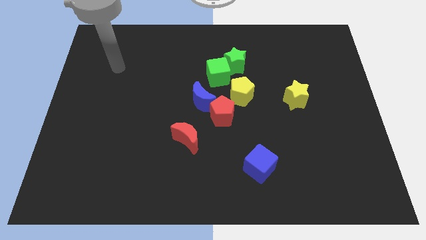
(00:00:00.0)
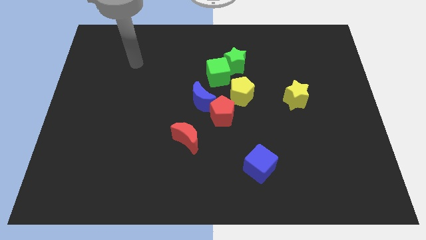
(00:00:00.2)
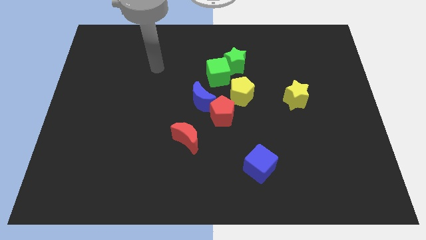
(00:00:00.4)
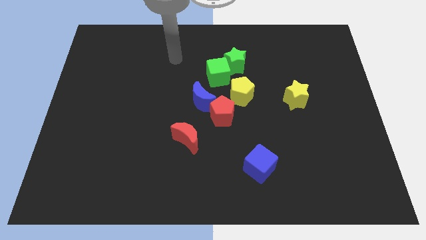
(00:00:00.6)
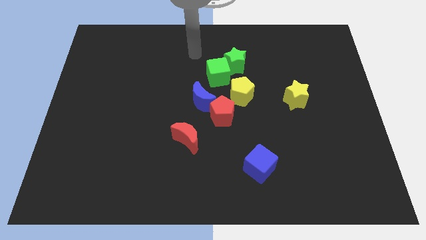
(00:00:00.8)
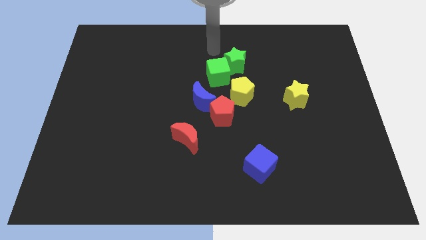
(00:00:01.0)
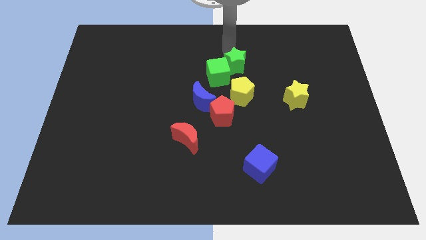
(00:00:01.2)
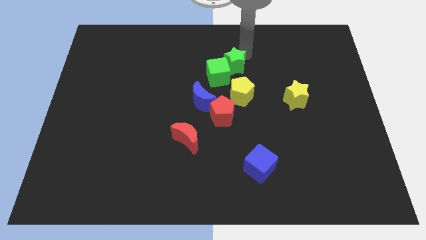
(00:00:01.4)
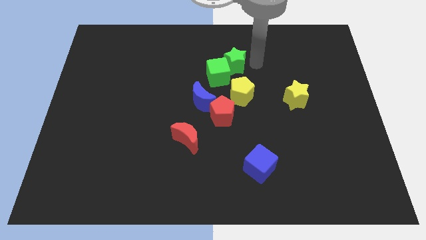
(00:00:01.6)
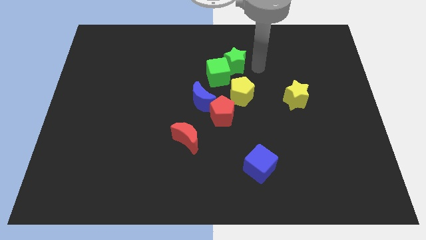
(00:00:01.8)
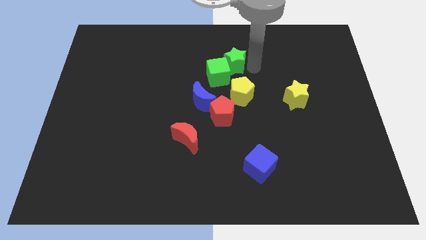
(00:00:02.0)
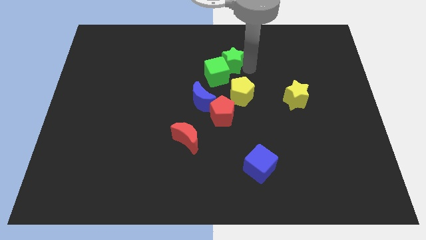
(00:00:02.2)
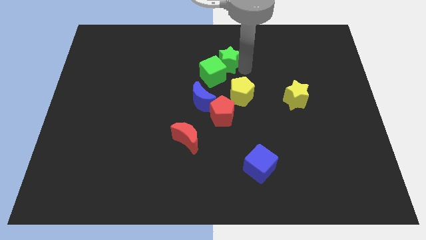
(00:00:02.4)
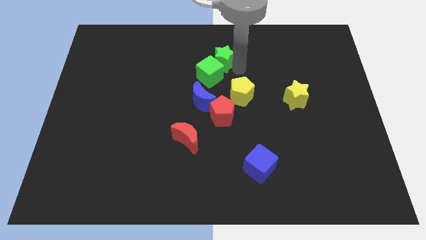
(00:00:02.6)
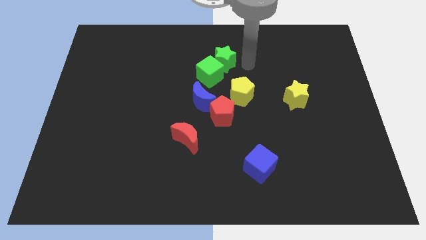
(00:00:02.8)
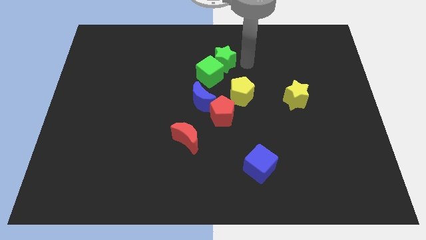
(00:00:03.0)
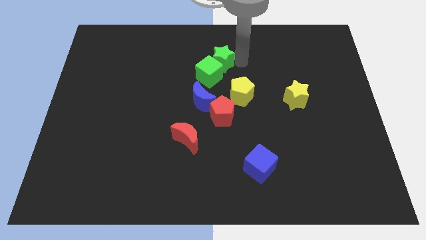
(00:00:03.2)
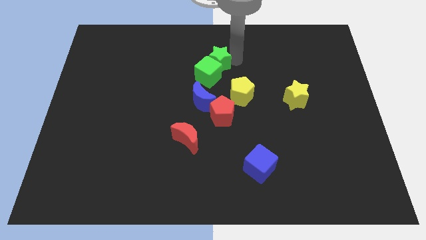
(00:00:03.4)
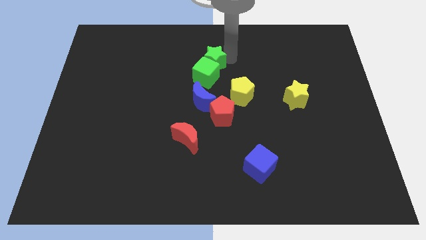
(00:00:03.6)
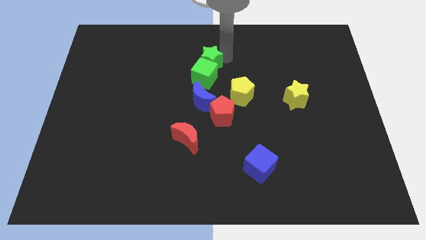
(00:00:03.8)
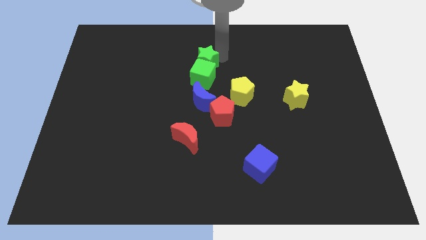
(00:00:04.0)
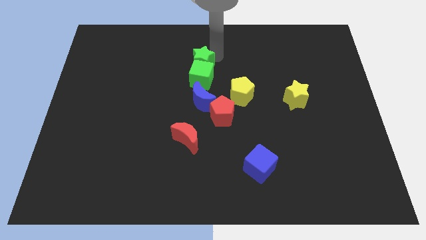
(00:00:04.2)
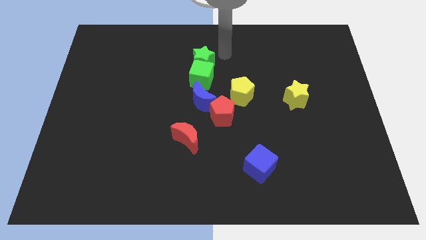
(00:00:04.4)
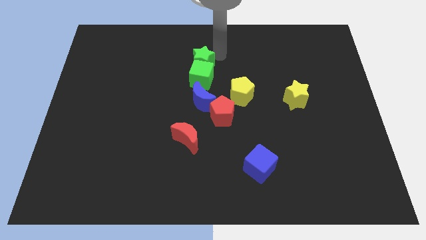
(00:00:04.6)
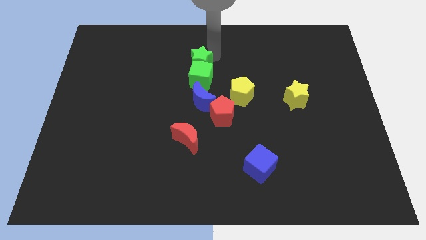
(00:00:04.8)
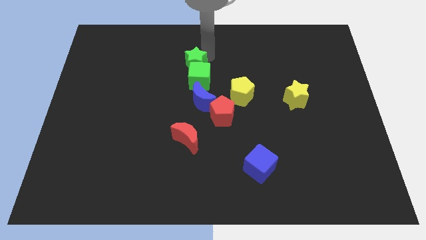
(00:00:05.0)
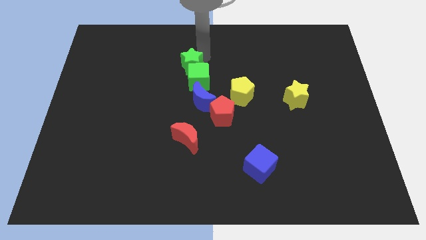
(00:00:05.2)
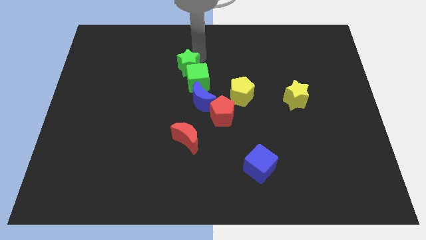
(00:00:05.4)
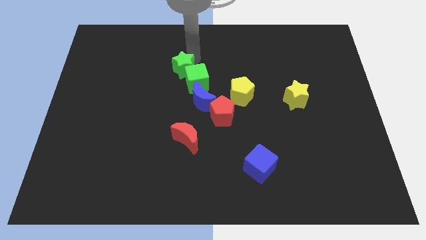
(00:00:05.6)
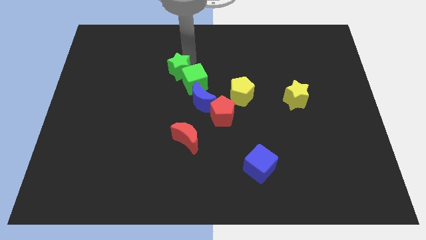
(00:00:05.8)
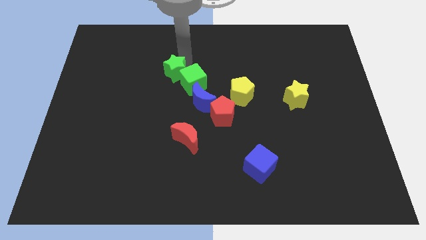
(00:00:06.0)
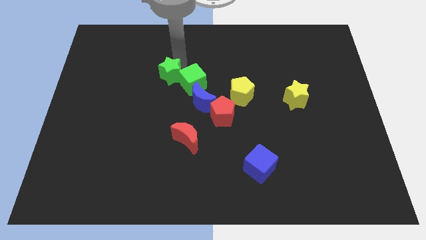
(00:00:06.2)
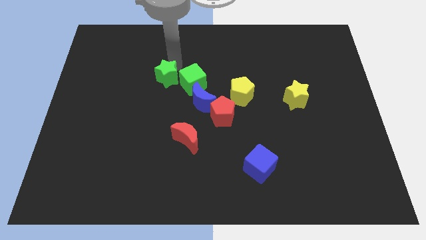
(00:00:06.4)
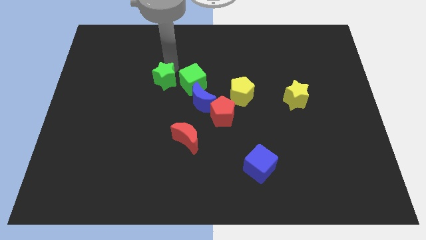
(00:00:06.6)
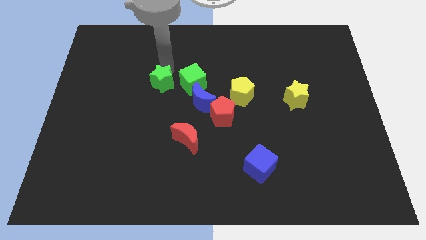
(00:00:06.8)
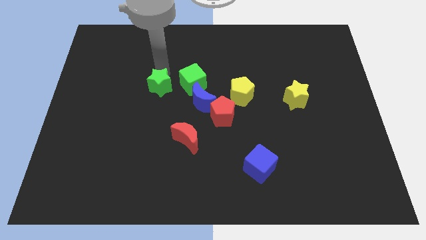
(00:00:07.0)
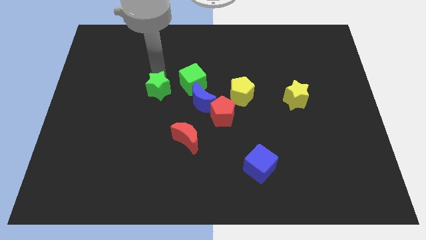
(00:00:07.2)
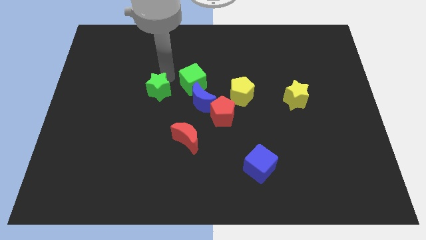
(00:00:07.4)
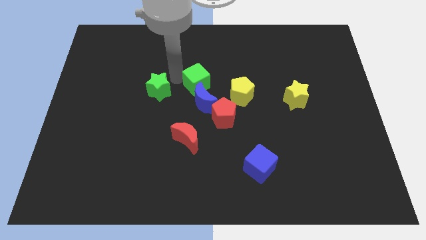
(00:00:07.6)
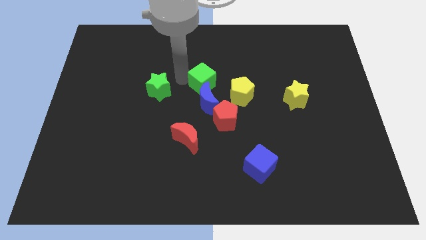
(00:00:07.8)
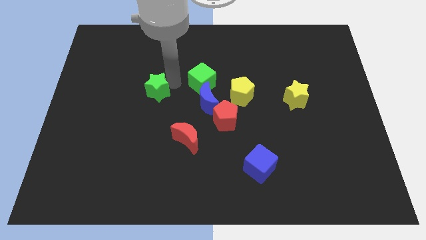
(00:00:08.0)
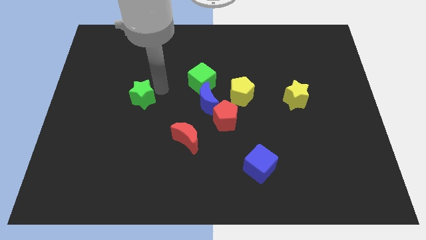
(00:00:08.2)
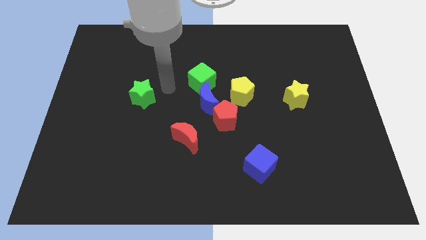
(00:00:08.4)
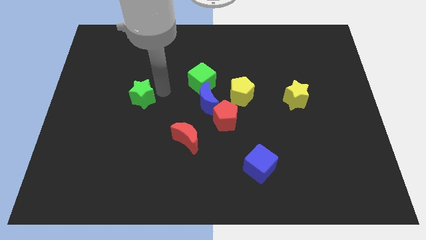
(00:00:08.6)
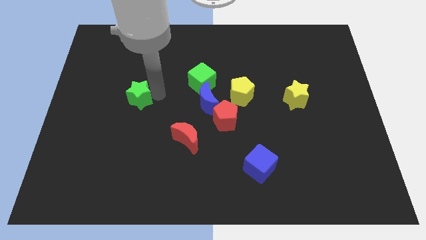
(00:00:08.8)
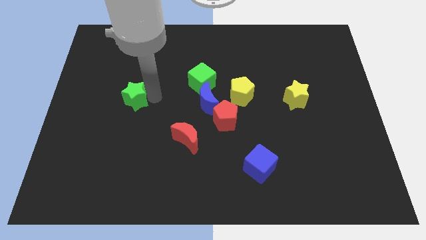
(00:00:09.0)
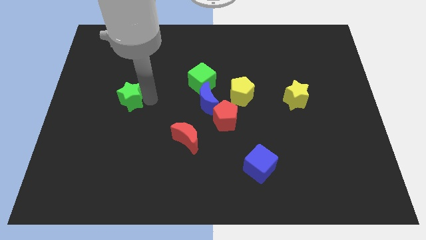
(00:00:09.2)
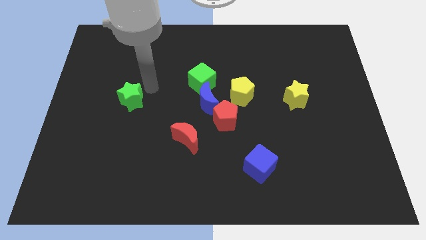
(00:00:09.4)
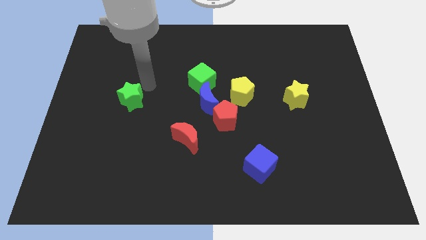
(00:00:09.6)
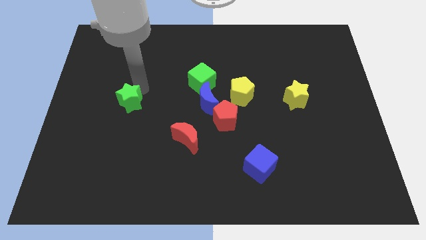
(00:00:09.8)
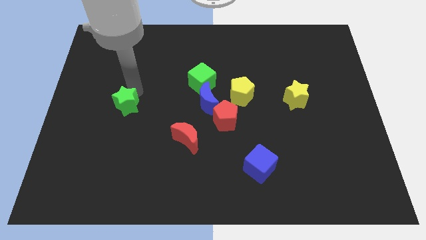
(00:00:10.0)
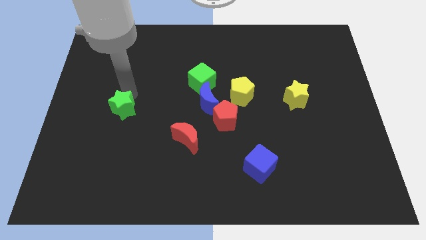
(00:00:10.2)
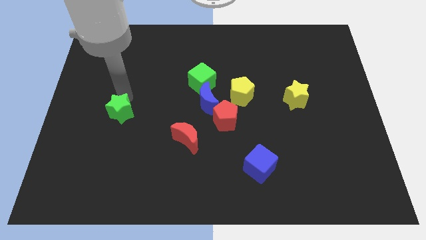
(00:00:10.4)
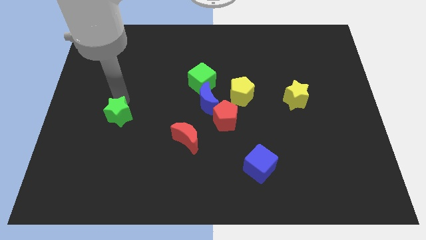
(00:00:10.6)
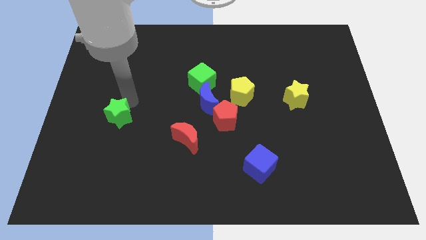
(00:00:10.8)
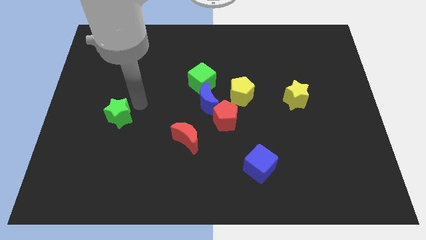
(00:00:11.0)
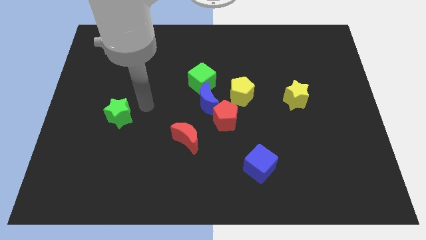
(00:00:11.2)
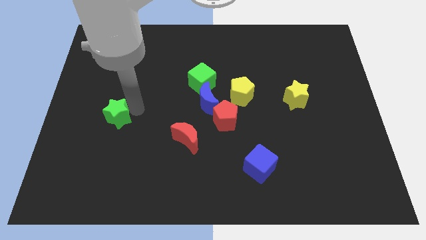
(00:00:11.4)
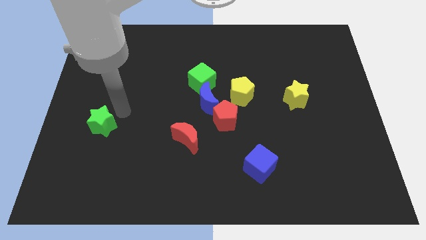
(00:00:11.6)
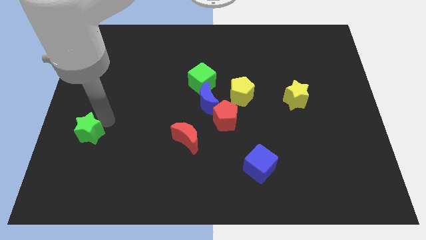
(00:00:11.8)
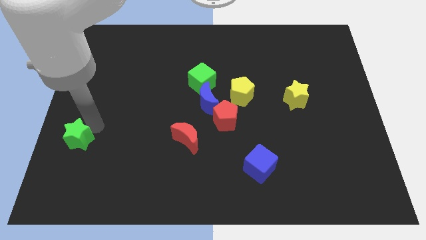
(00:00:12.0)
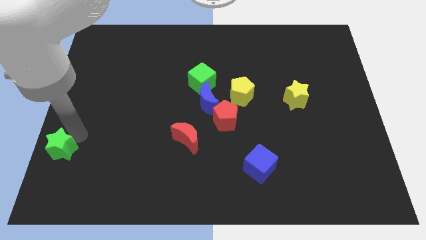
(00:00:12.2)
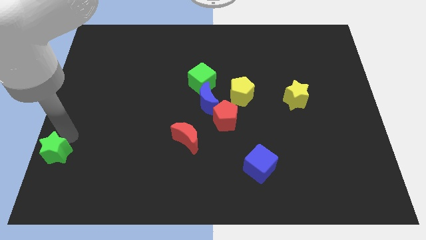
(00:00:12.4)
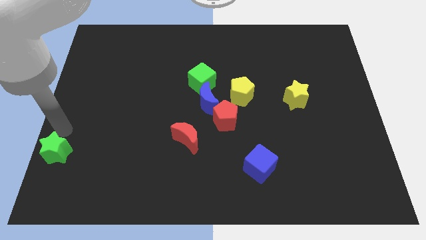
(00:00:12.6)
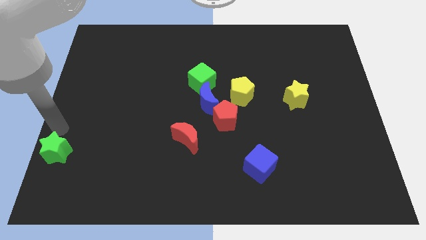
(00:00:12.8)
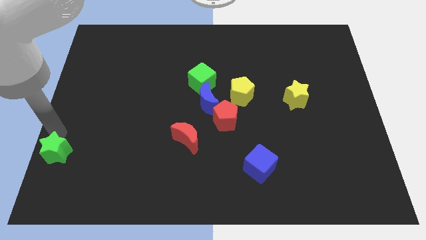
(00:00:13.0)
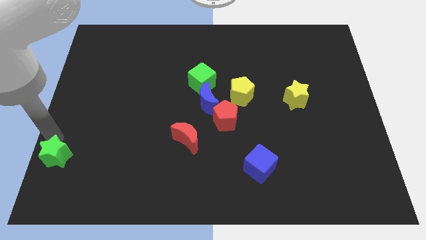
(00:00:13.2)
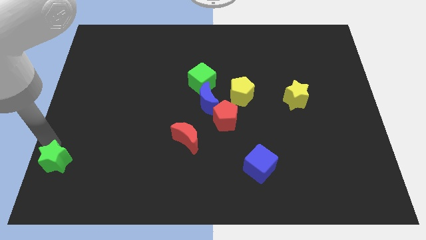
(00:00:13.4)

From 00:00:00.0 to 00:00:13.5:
push the green star to the lower left corner
